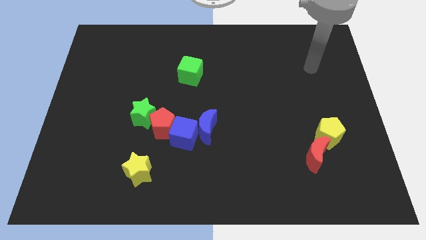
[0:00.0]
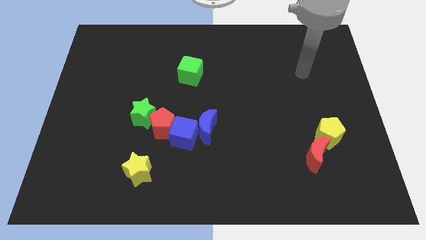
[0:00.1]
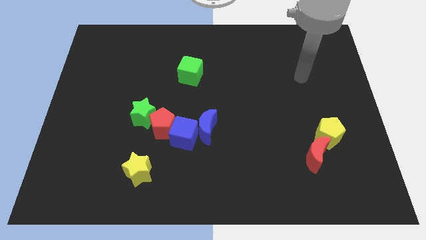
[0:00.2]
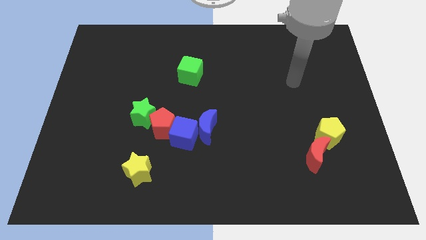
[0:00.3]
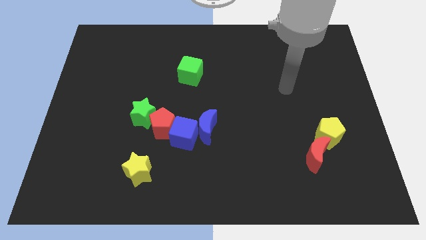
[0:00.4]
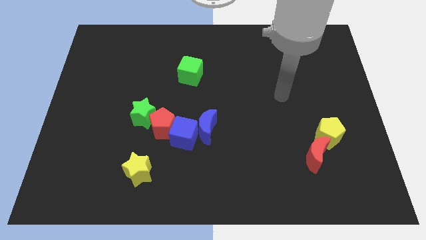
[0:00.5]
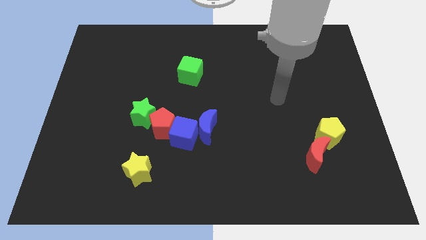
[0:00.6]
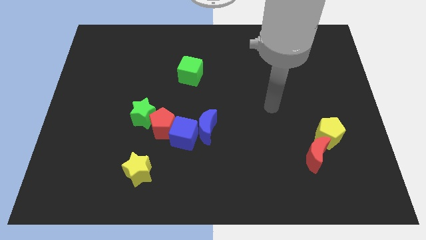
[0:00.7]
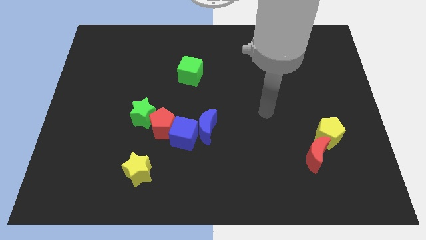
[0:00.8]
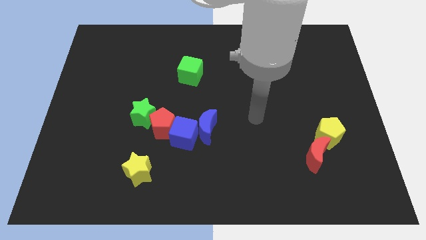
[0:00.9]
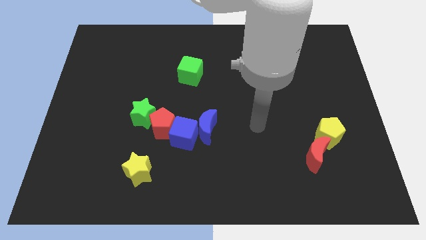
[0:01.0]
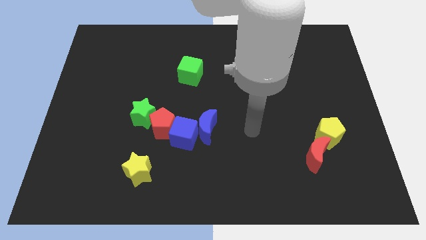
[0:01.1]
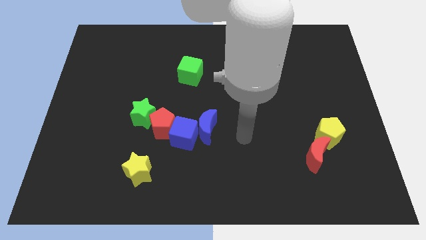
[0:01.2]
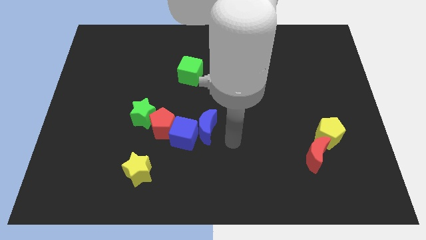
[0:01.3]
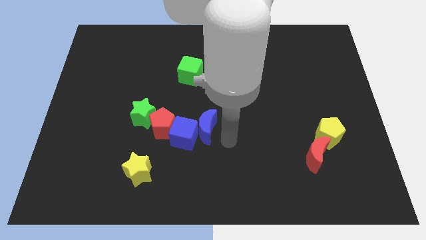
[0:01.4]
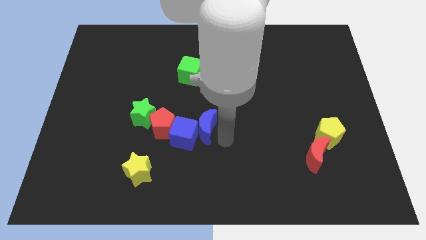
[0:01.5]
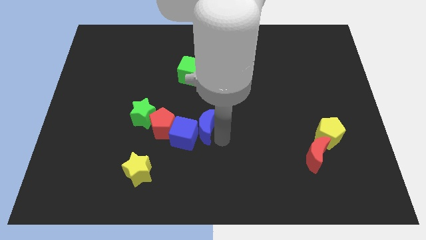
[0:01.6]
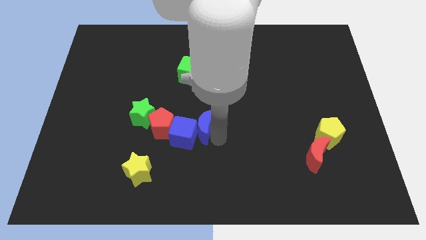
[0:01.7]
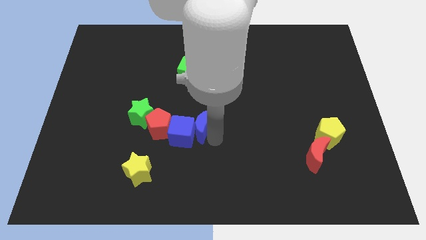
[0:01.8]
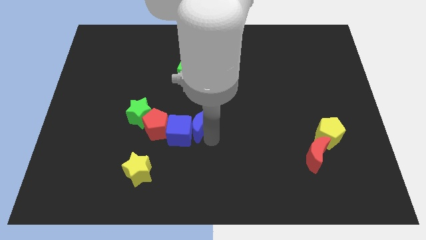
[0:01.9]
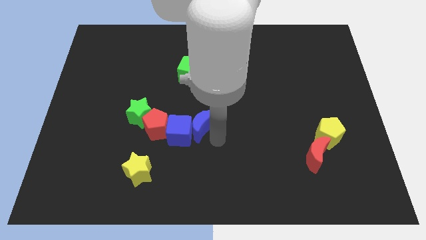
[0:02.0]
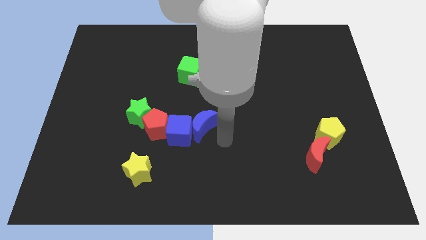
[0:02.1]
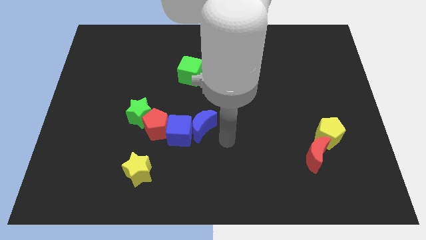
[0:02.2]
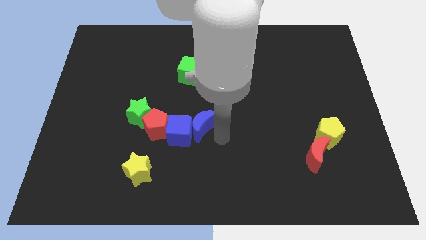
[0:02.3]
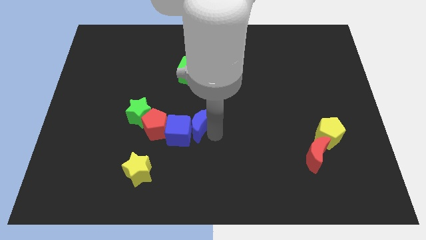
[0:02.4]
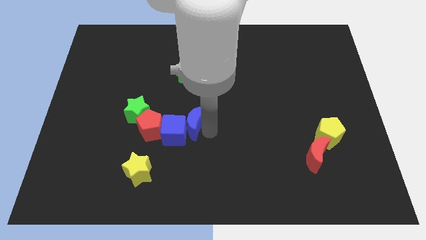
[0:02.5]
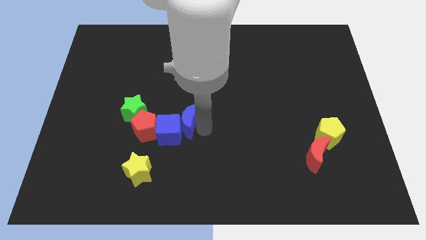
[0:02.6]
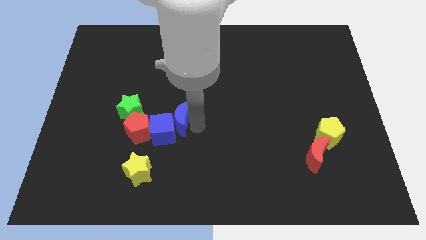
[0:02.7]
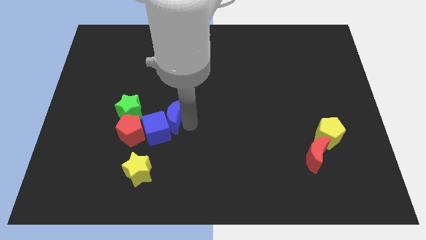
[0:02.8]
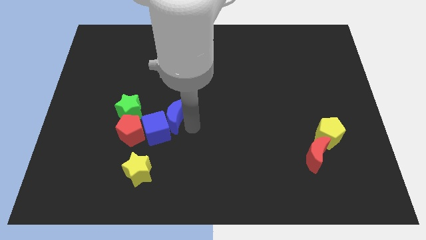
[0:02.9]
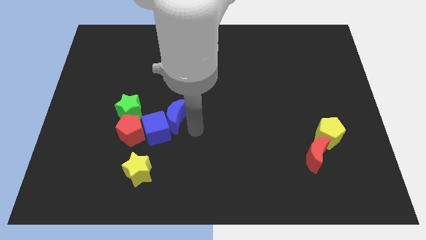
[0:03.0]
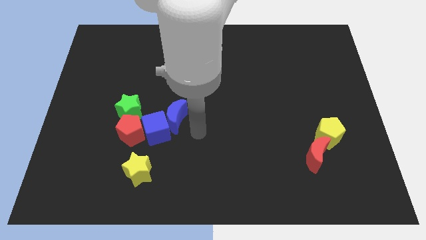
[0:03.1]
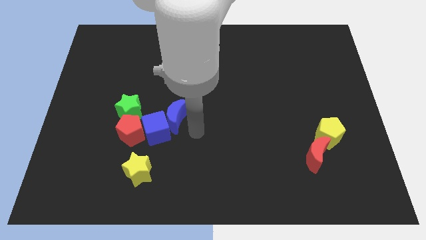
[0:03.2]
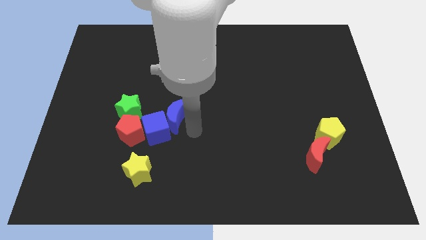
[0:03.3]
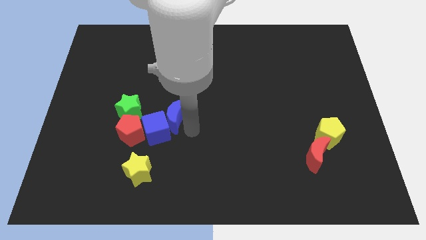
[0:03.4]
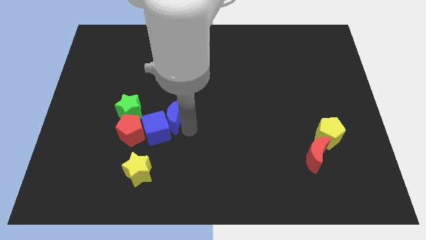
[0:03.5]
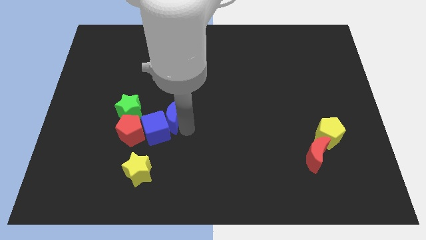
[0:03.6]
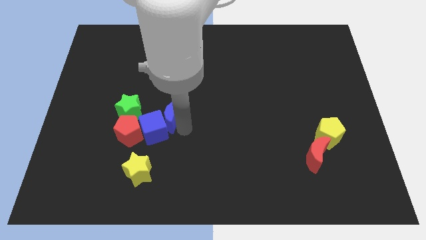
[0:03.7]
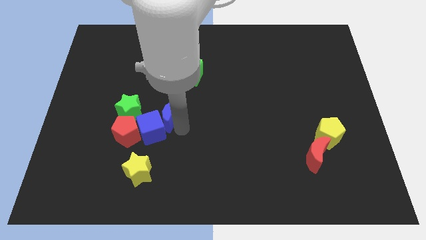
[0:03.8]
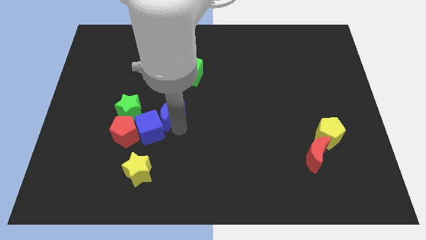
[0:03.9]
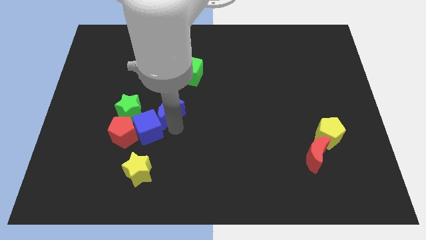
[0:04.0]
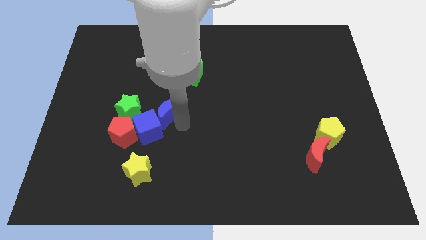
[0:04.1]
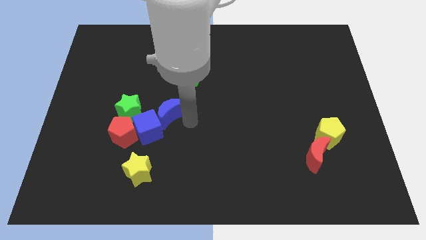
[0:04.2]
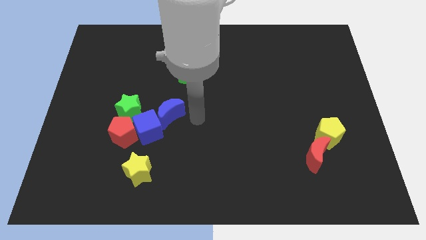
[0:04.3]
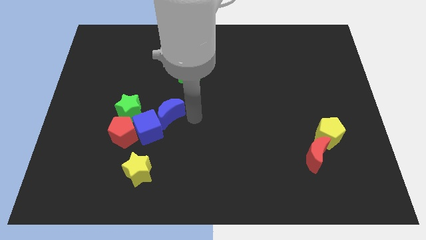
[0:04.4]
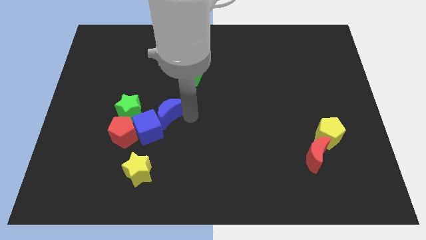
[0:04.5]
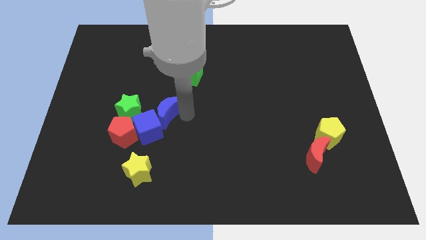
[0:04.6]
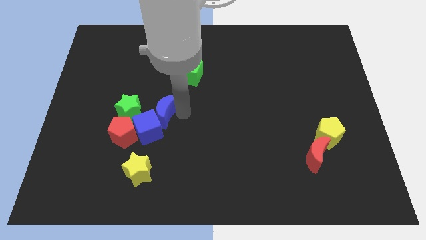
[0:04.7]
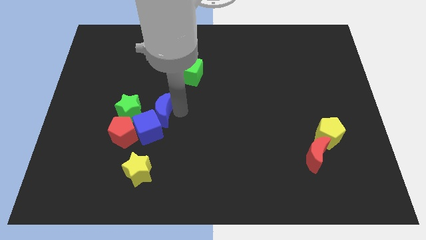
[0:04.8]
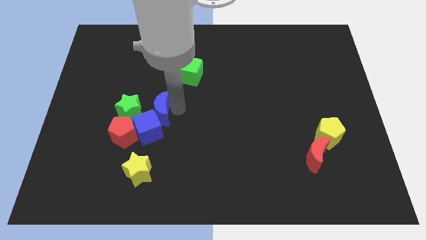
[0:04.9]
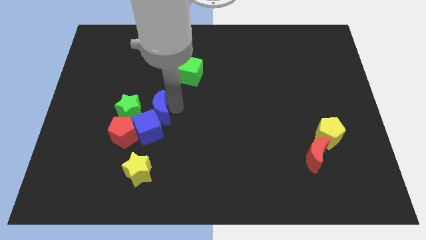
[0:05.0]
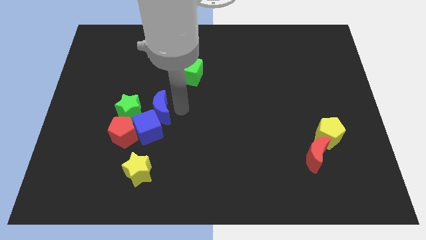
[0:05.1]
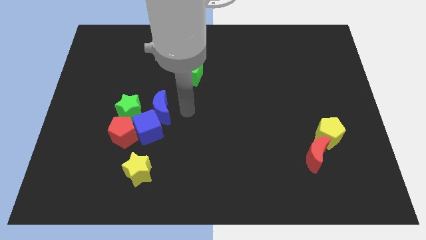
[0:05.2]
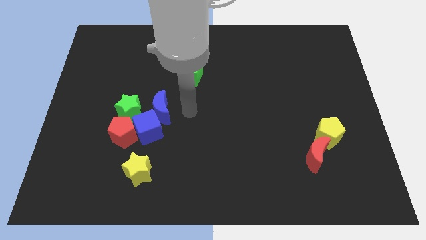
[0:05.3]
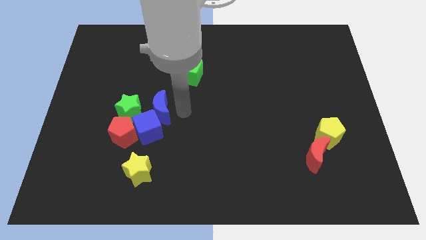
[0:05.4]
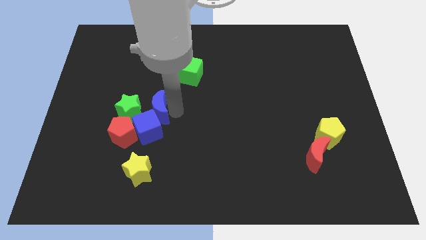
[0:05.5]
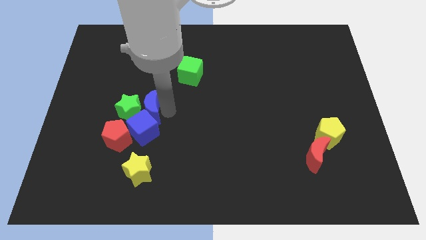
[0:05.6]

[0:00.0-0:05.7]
put the blue moon towards the green star
